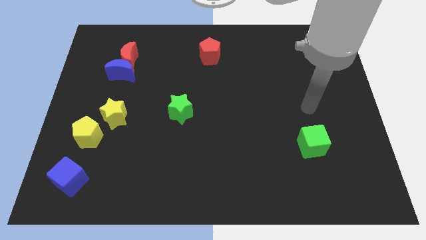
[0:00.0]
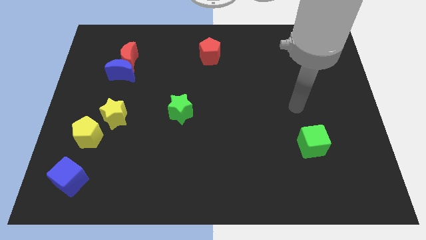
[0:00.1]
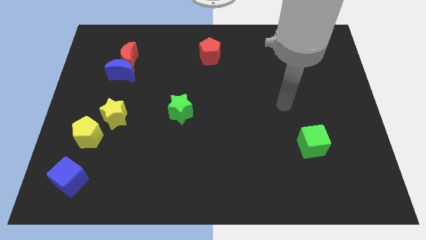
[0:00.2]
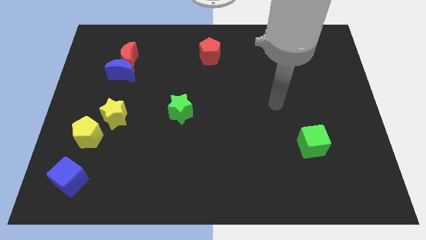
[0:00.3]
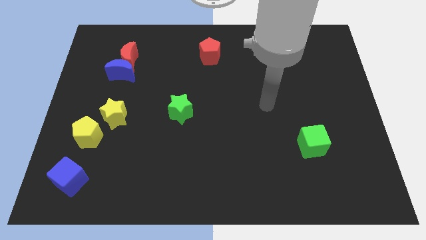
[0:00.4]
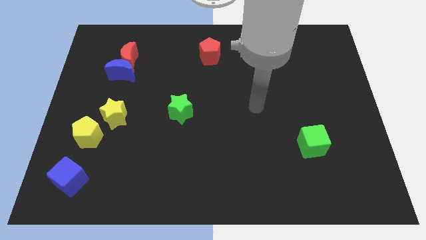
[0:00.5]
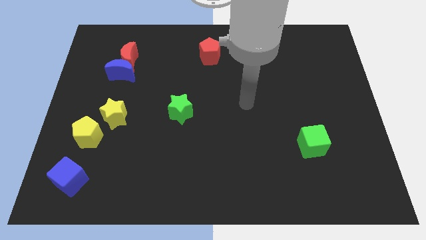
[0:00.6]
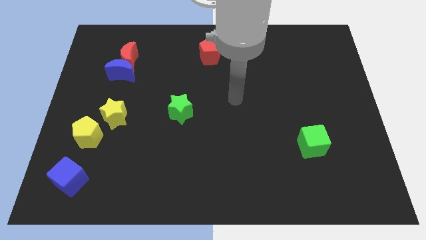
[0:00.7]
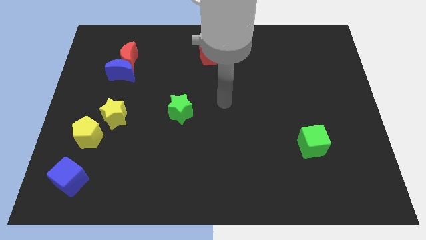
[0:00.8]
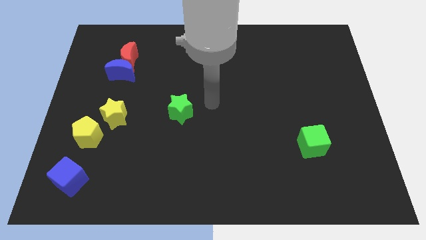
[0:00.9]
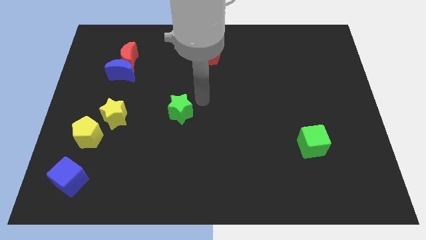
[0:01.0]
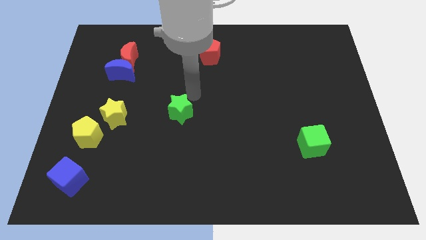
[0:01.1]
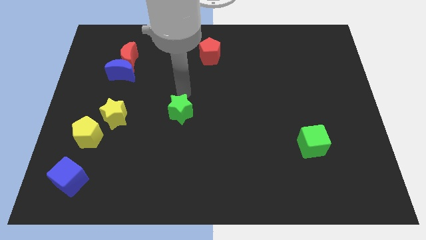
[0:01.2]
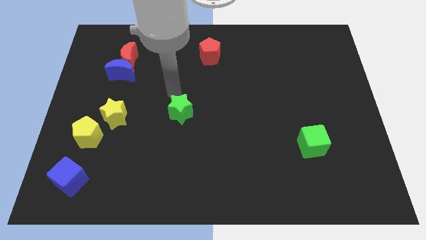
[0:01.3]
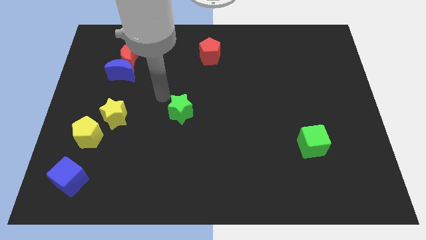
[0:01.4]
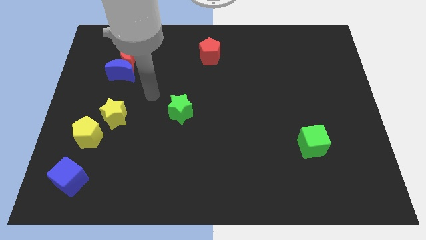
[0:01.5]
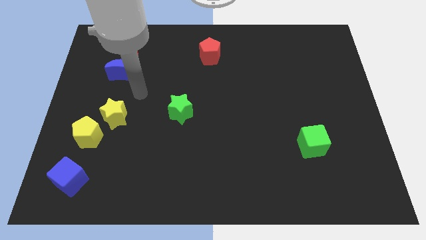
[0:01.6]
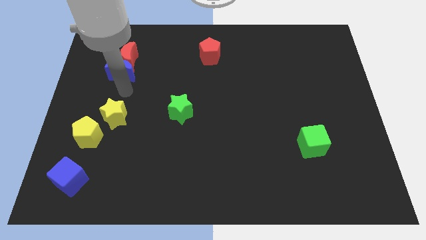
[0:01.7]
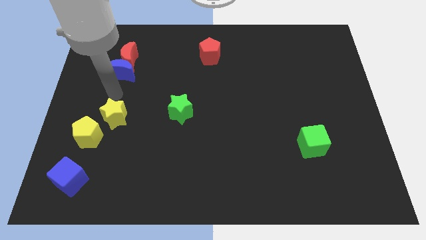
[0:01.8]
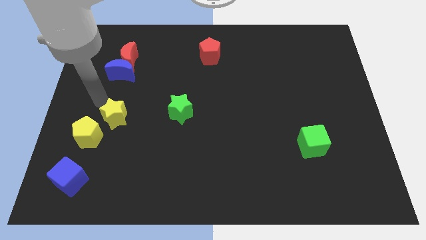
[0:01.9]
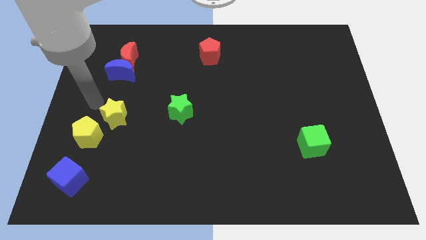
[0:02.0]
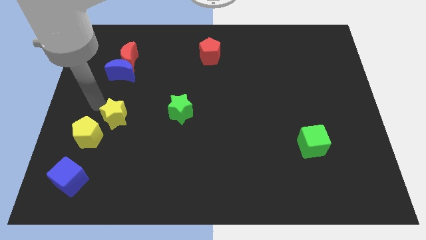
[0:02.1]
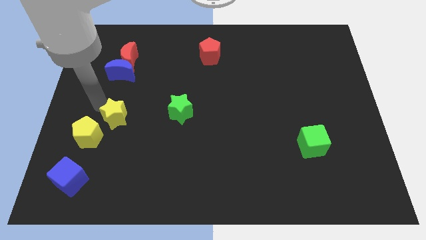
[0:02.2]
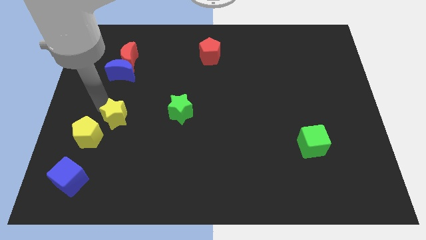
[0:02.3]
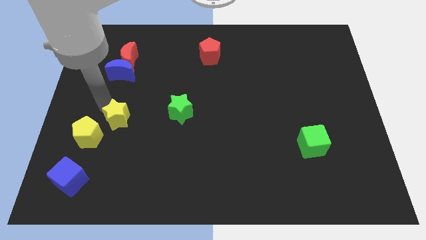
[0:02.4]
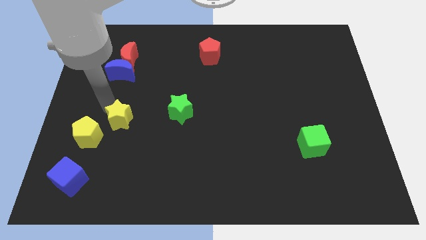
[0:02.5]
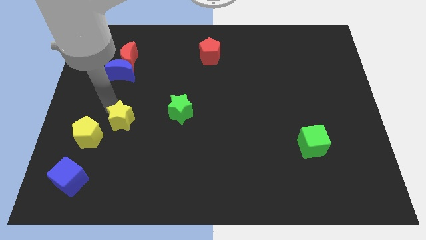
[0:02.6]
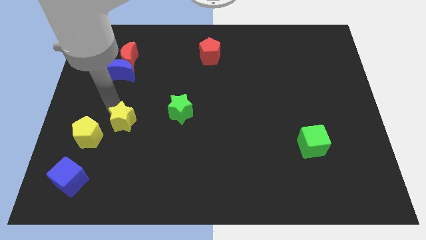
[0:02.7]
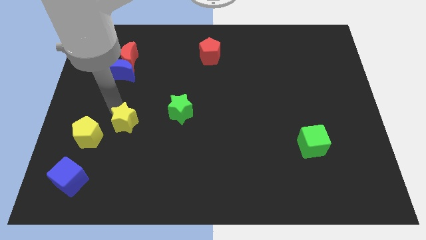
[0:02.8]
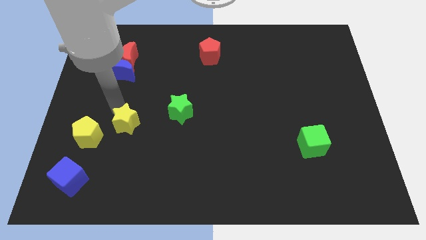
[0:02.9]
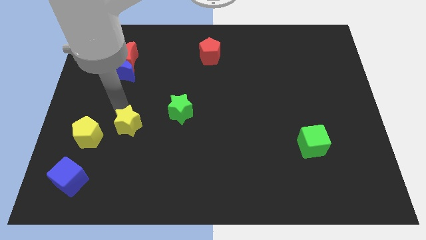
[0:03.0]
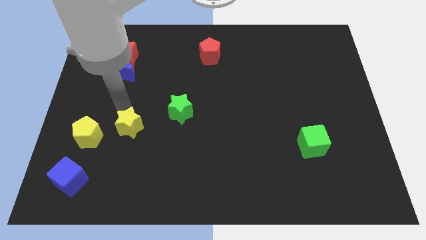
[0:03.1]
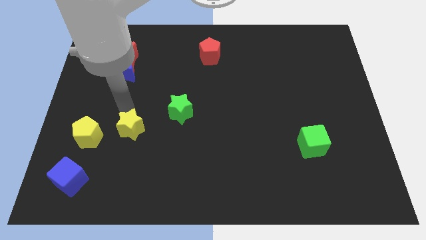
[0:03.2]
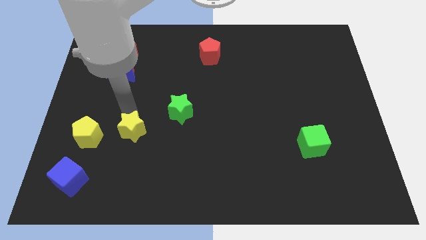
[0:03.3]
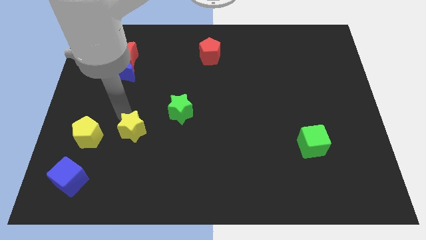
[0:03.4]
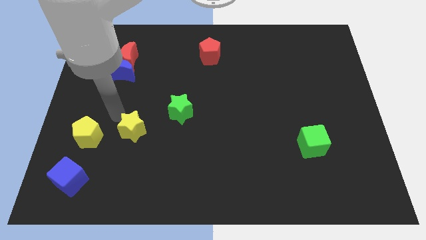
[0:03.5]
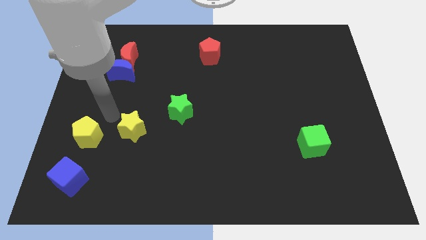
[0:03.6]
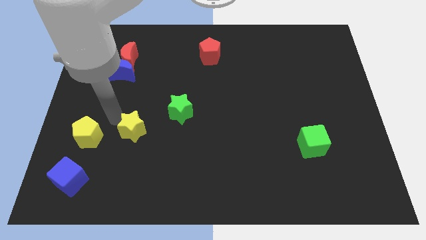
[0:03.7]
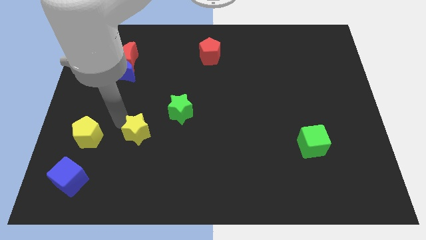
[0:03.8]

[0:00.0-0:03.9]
slightly slide the yellow star down and then right

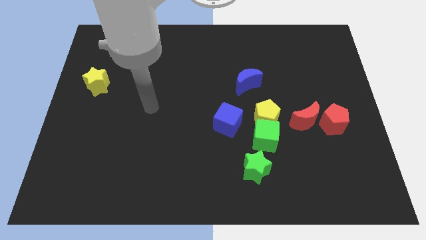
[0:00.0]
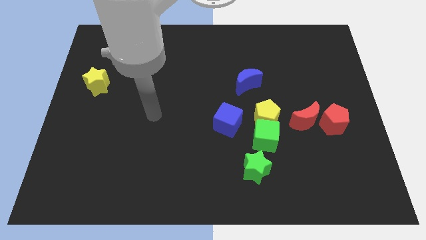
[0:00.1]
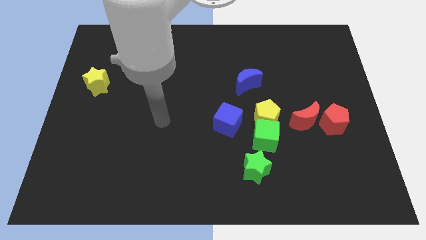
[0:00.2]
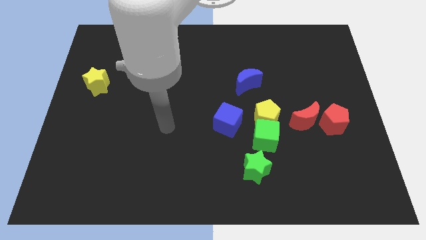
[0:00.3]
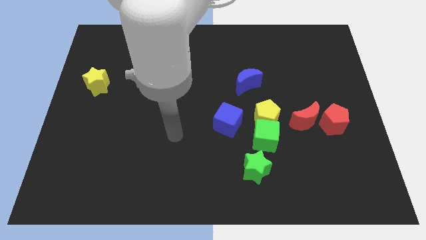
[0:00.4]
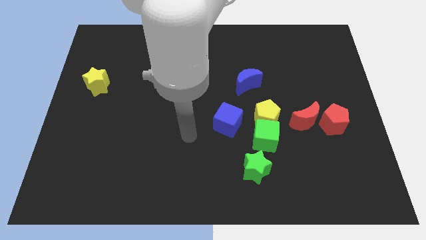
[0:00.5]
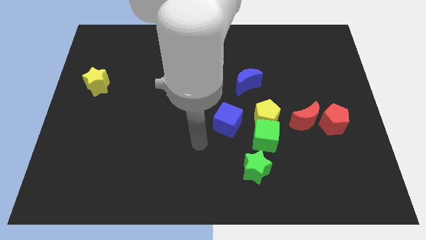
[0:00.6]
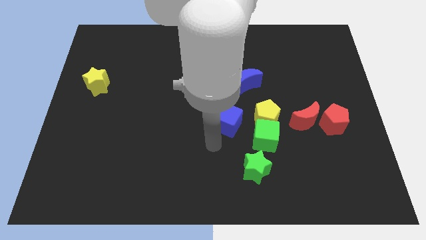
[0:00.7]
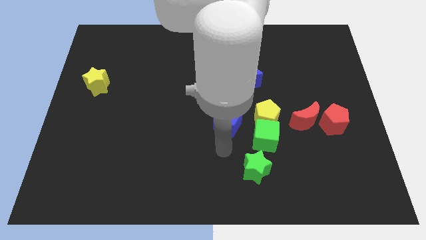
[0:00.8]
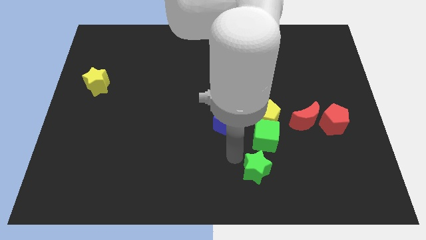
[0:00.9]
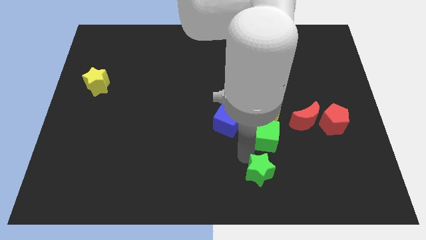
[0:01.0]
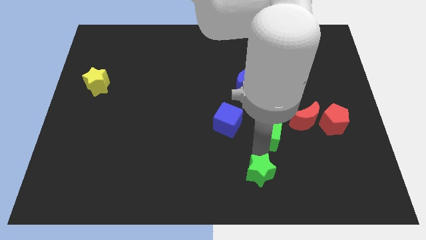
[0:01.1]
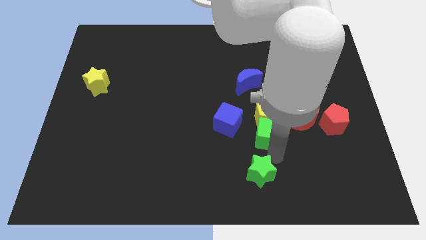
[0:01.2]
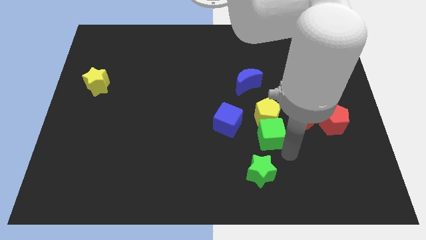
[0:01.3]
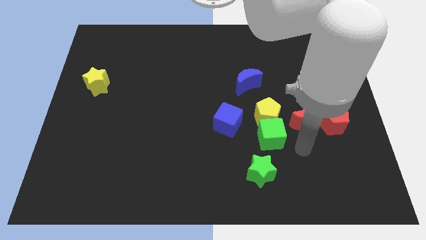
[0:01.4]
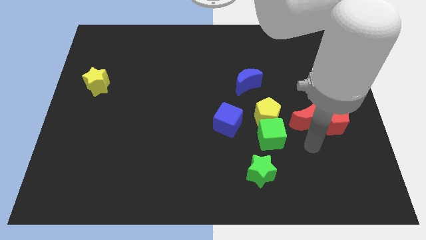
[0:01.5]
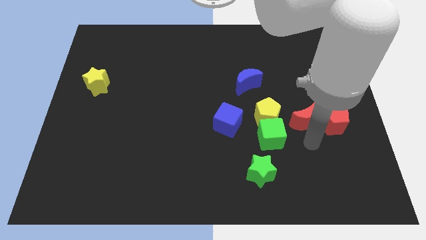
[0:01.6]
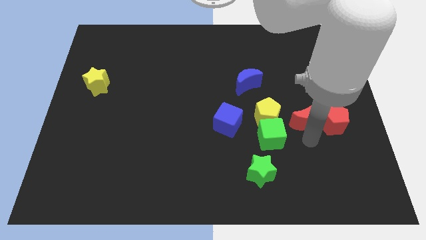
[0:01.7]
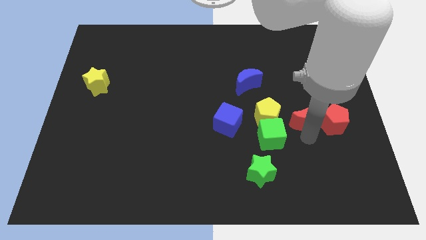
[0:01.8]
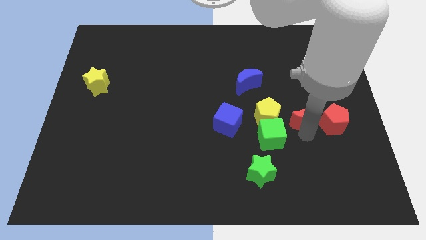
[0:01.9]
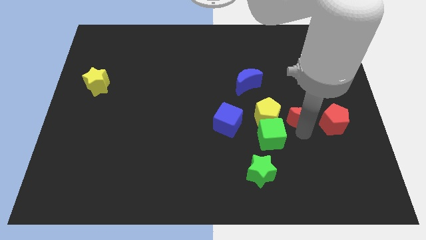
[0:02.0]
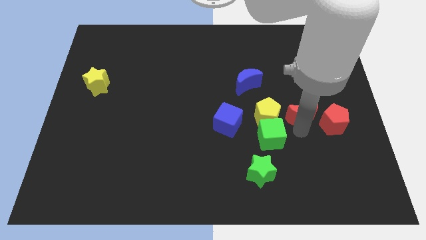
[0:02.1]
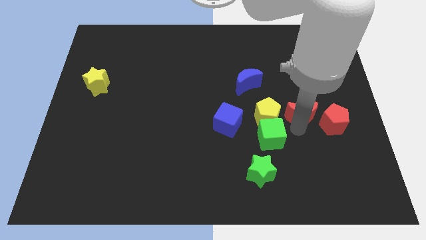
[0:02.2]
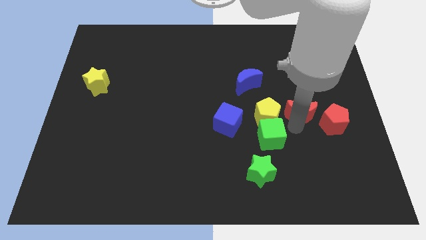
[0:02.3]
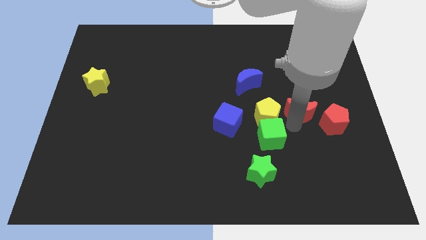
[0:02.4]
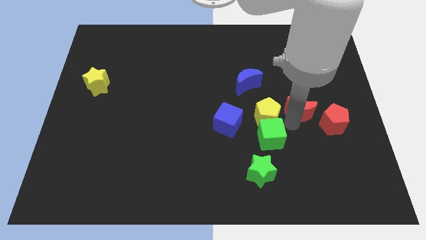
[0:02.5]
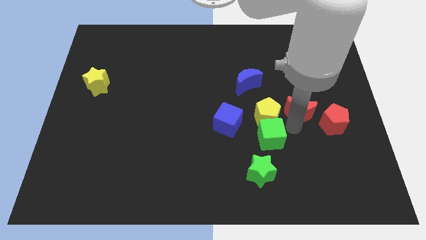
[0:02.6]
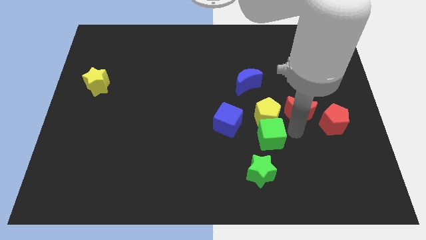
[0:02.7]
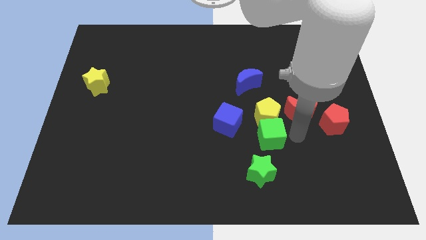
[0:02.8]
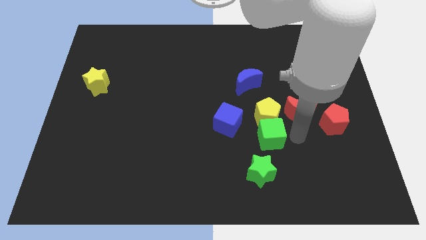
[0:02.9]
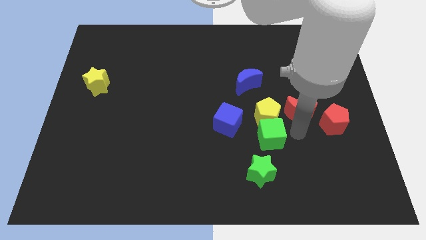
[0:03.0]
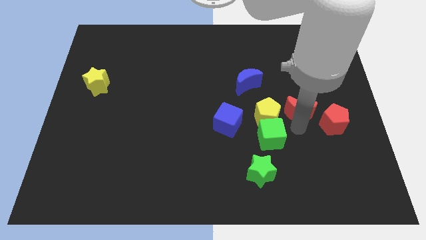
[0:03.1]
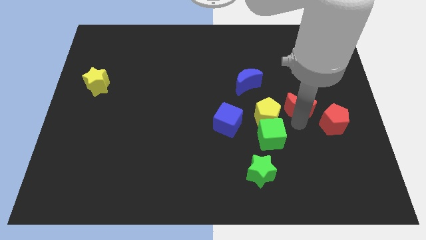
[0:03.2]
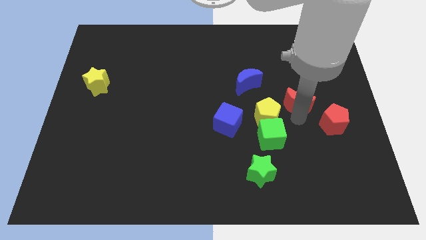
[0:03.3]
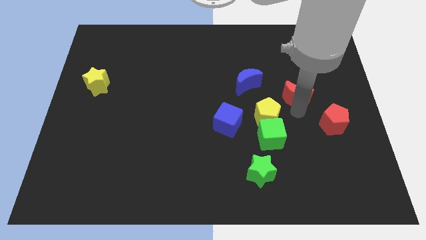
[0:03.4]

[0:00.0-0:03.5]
slightly push the red moon up

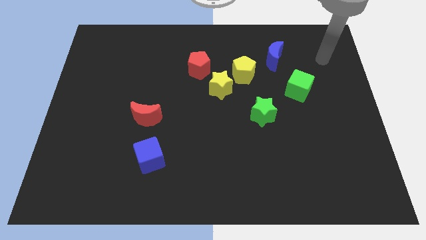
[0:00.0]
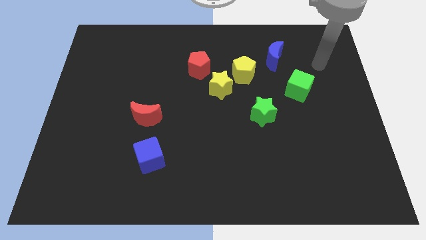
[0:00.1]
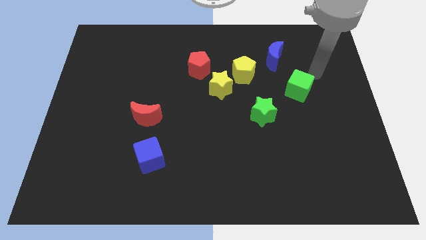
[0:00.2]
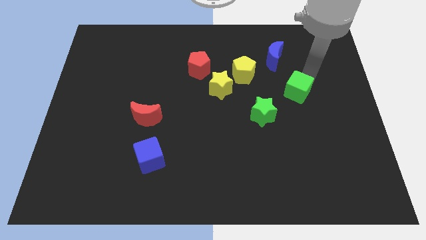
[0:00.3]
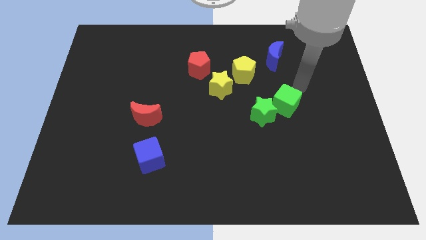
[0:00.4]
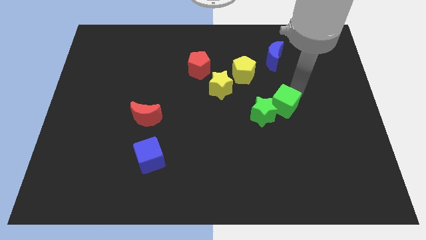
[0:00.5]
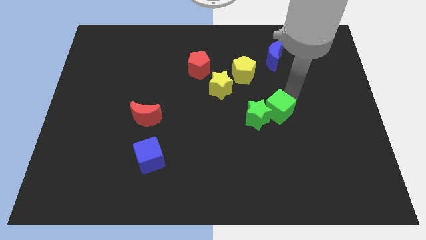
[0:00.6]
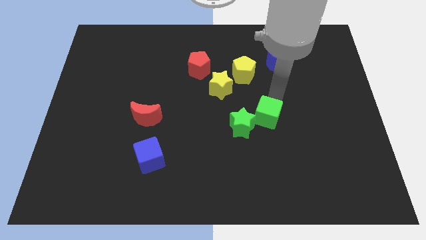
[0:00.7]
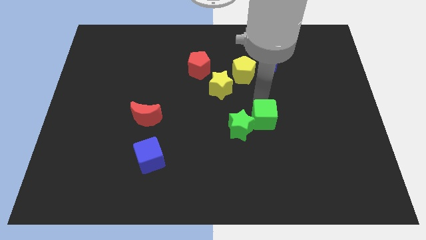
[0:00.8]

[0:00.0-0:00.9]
slightly move the green star downwards and left
